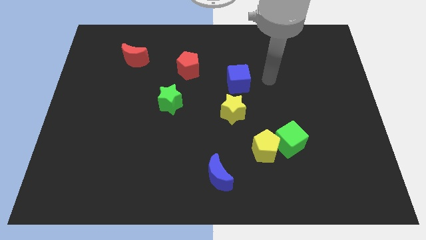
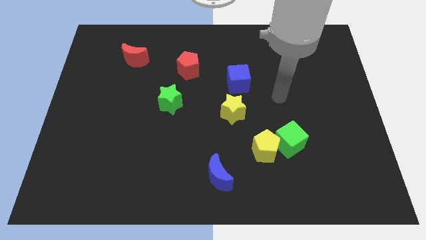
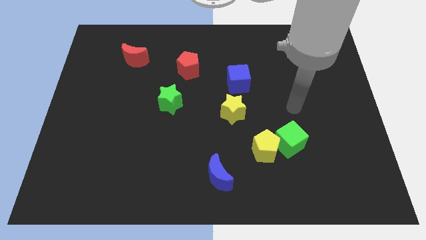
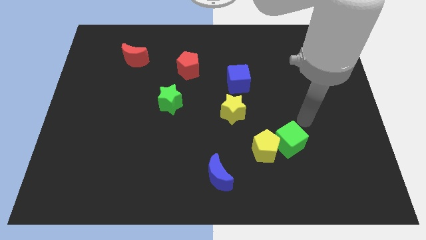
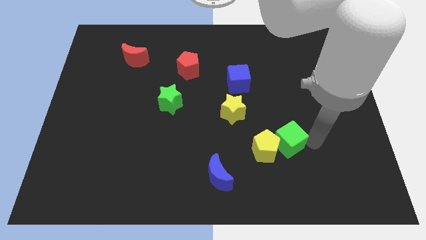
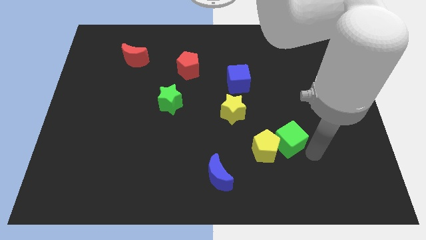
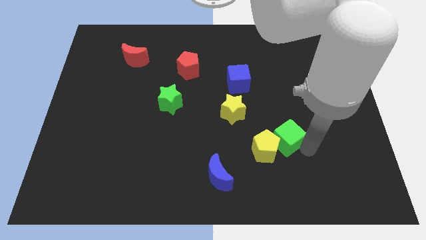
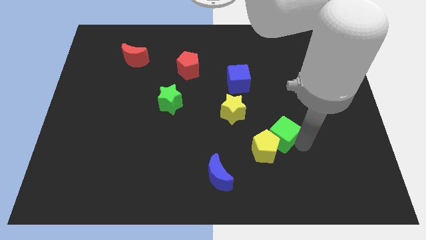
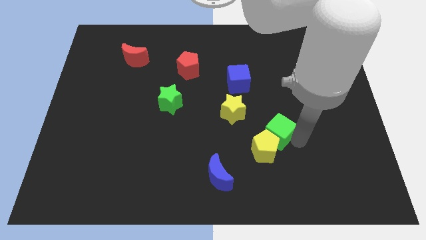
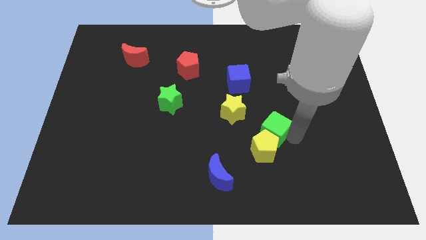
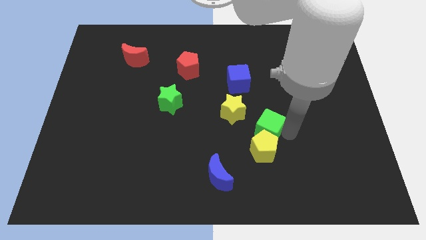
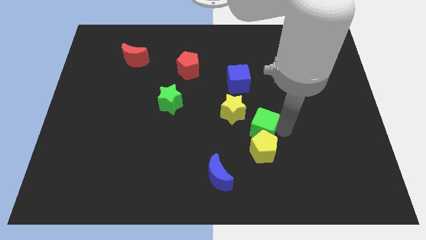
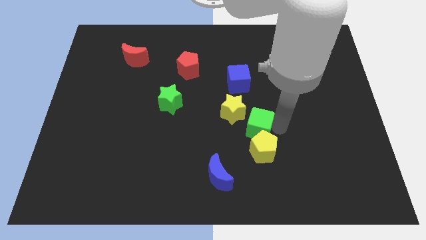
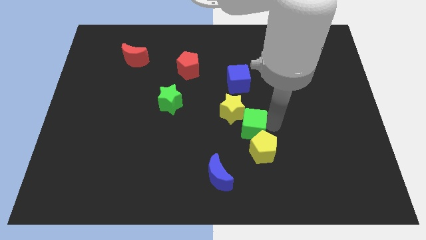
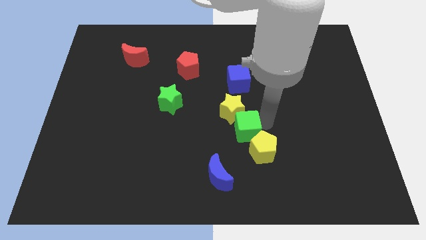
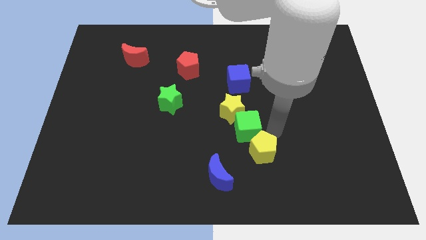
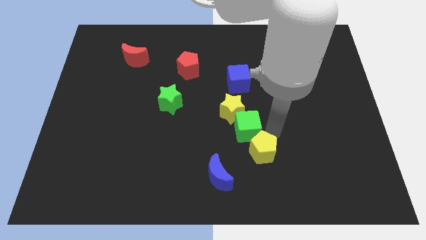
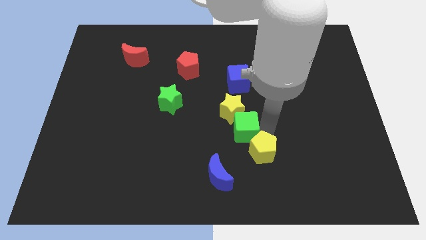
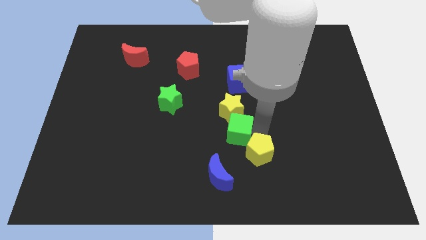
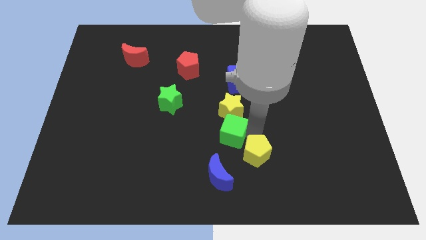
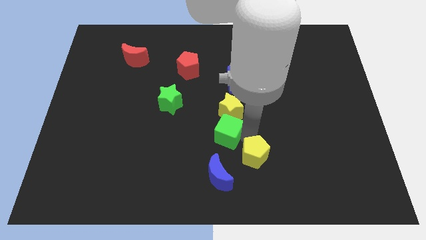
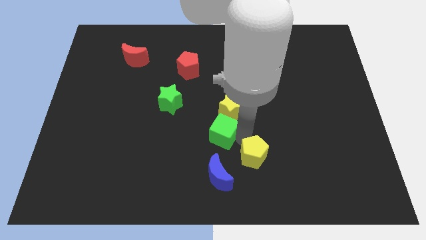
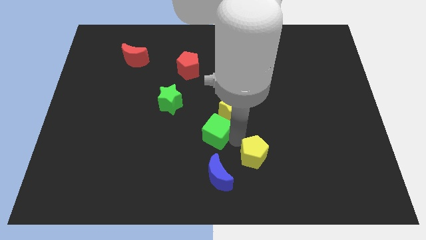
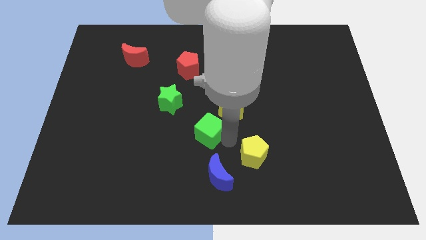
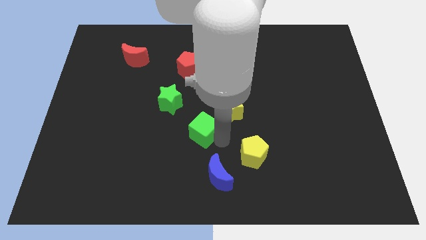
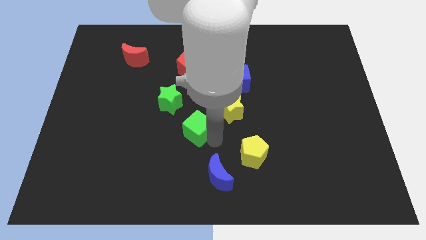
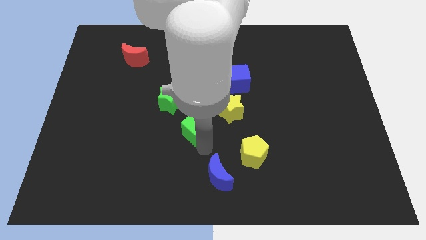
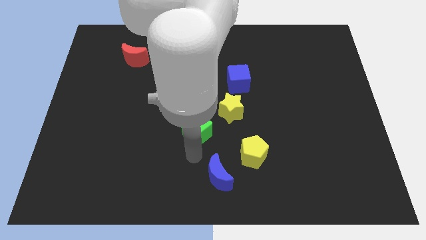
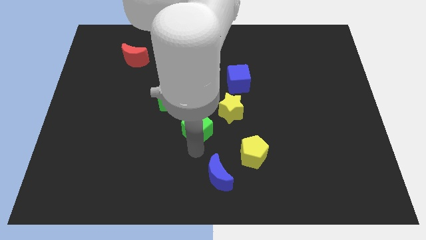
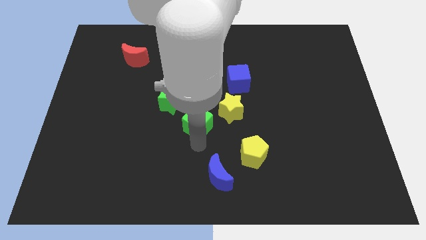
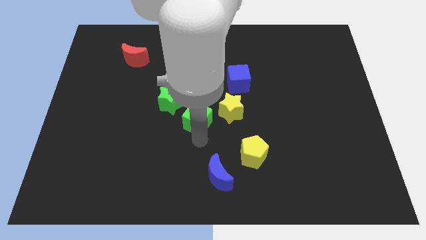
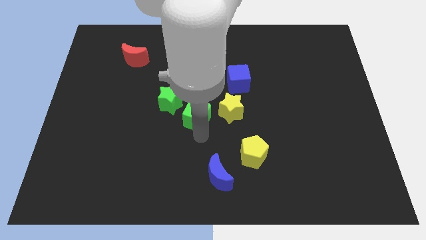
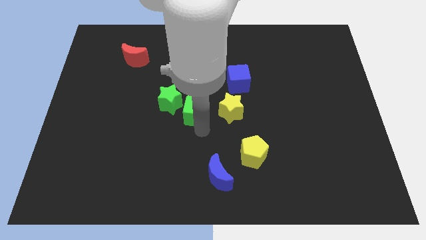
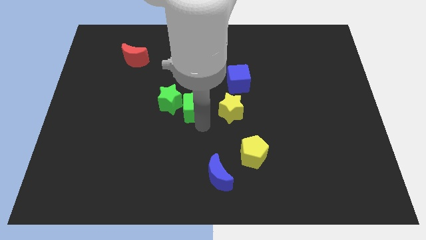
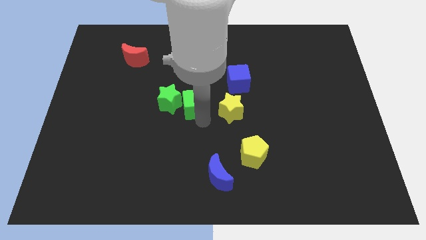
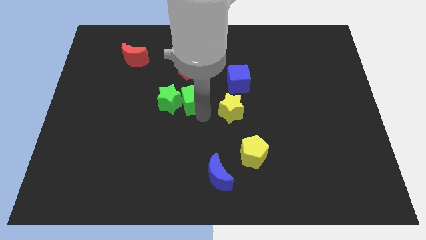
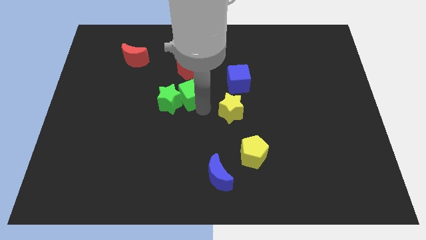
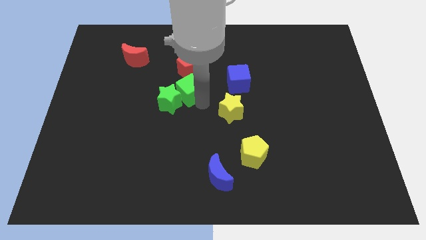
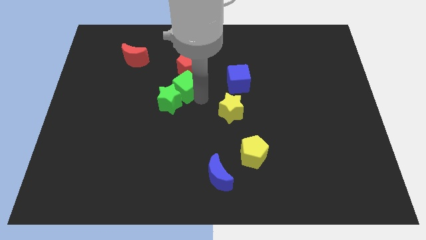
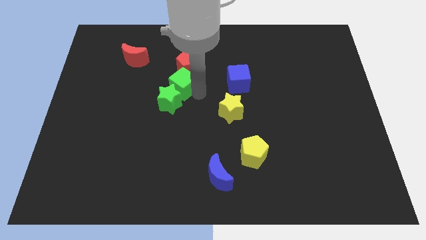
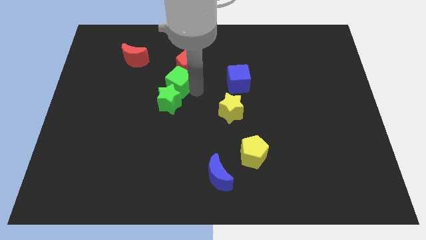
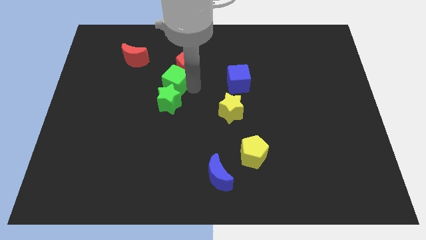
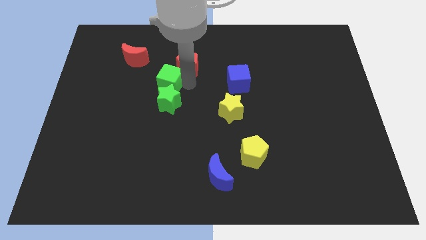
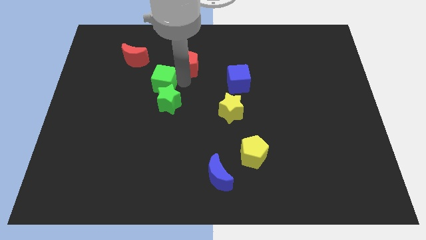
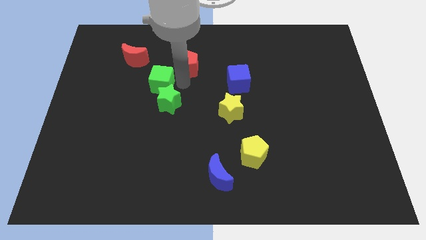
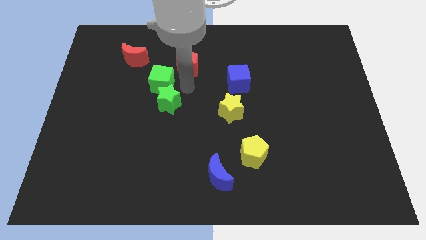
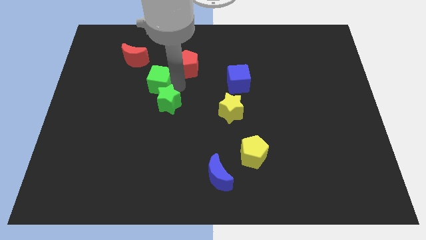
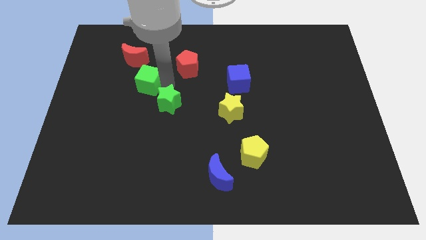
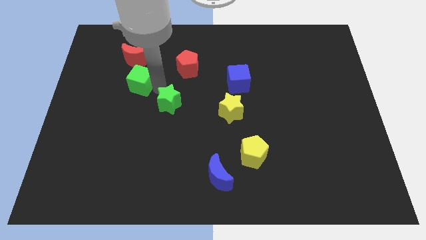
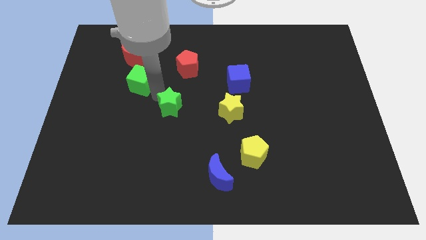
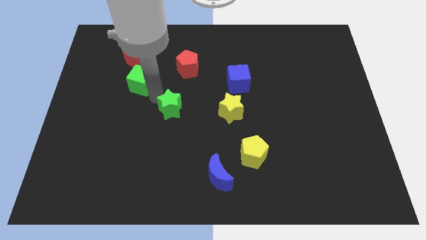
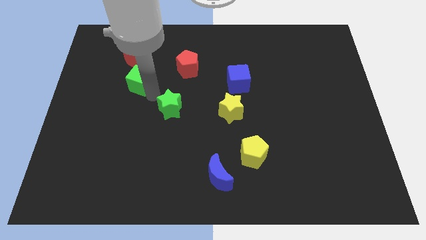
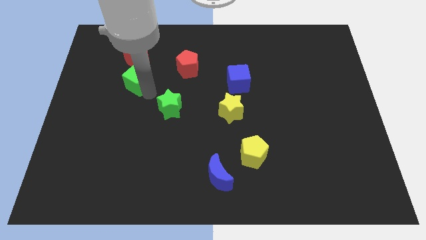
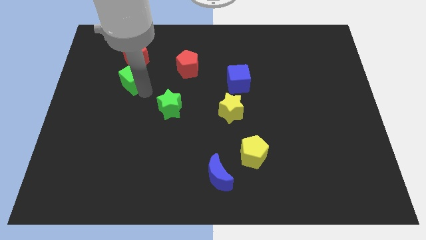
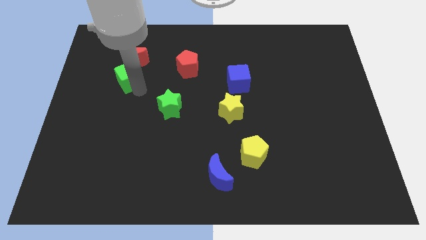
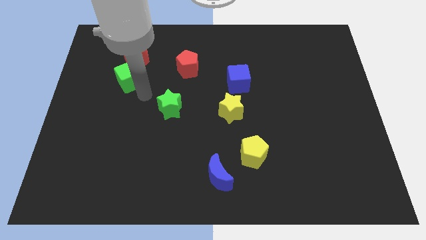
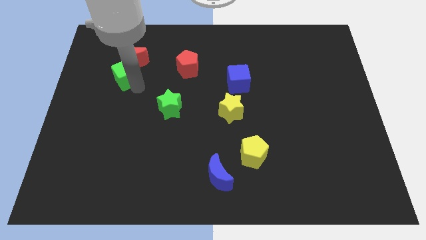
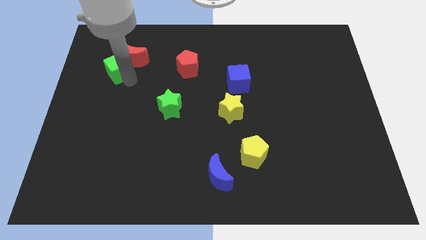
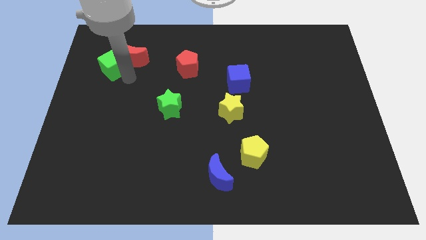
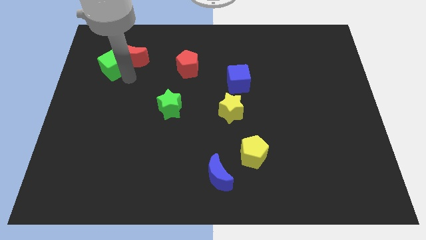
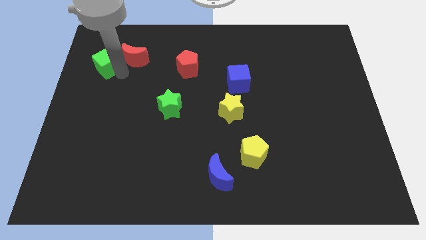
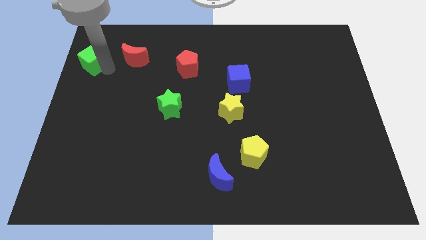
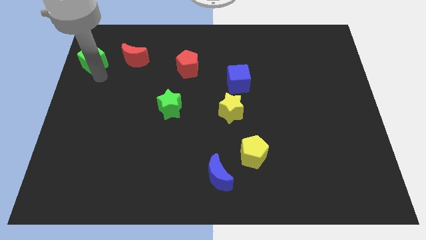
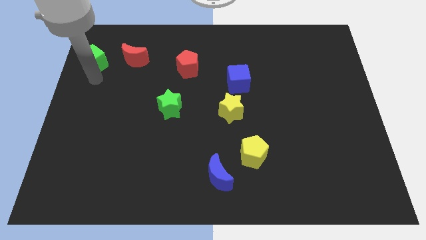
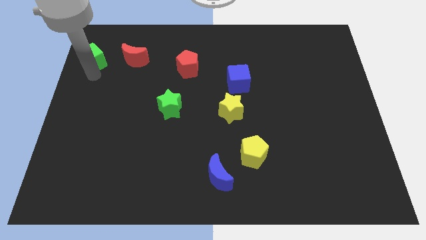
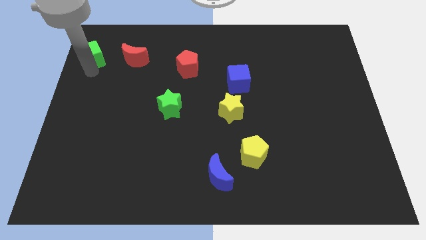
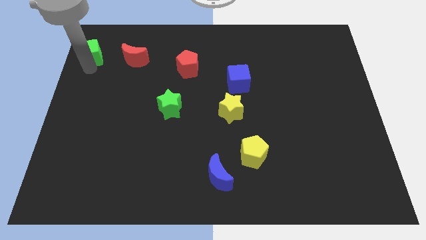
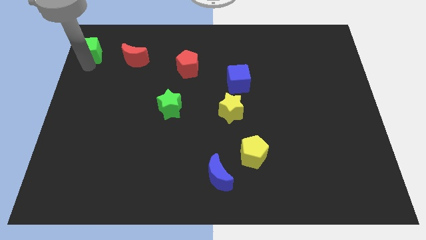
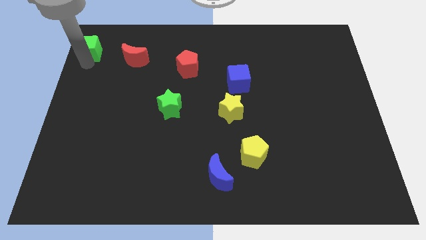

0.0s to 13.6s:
move the green cube to the top left corner
